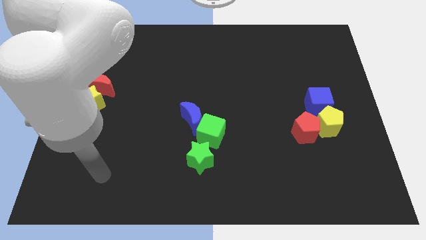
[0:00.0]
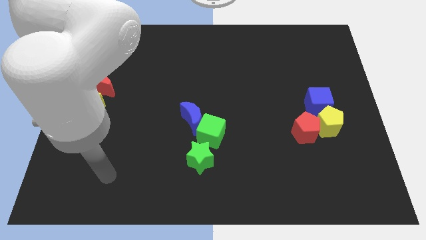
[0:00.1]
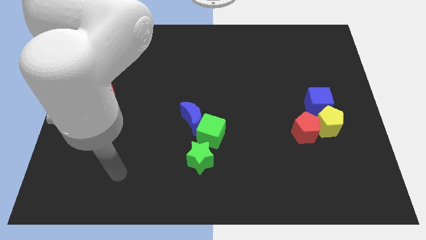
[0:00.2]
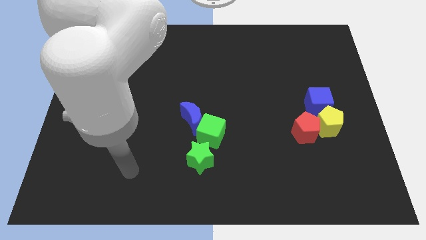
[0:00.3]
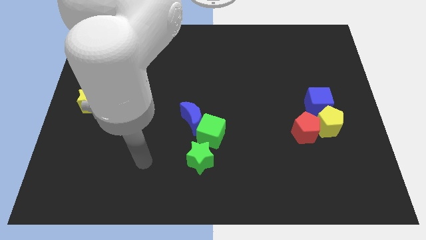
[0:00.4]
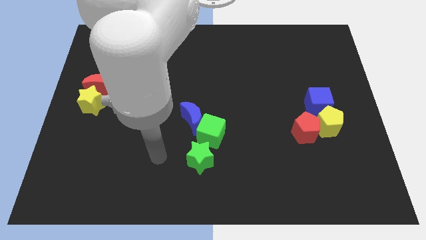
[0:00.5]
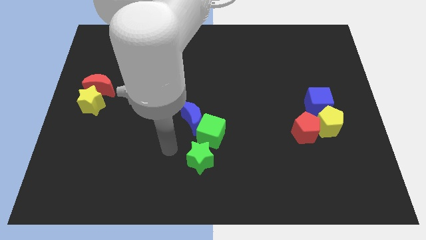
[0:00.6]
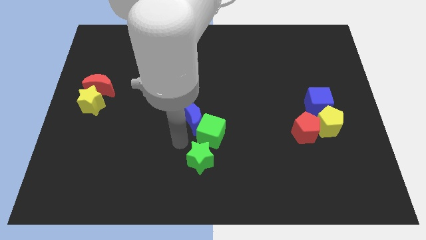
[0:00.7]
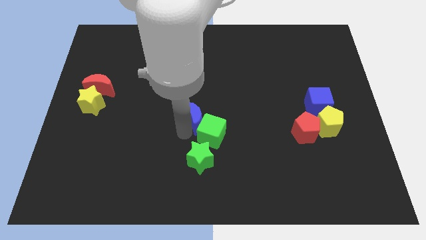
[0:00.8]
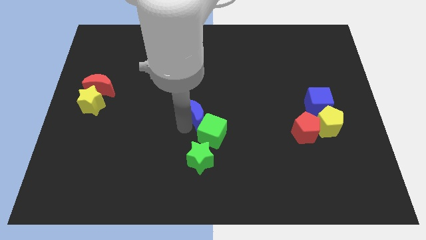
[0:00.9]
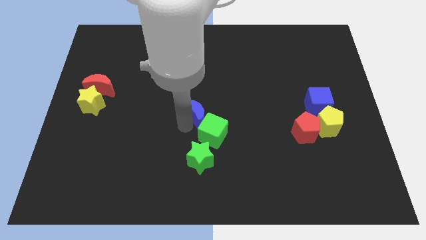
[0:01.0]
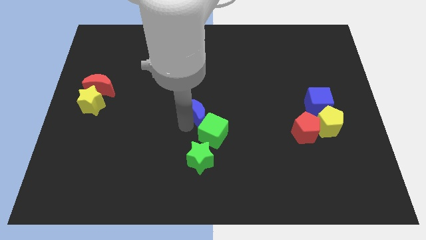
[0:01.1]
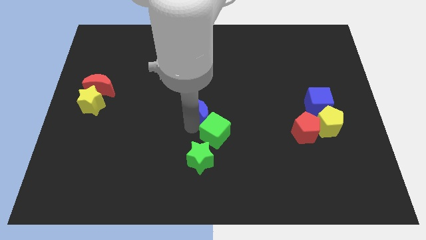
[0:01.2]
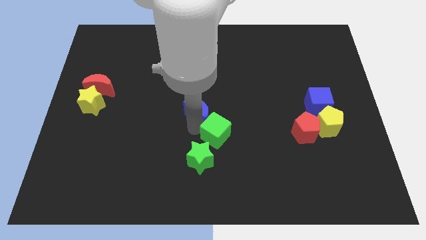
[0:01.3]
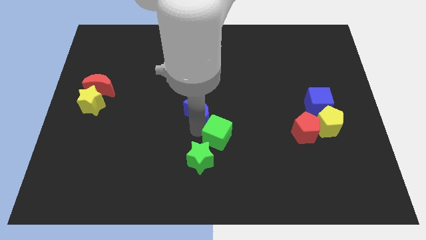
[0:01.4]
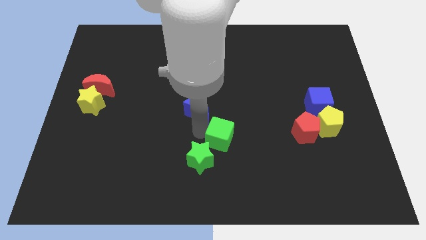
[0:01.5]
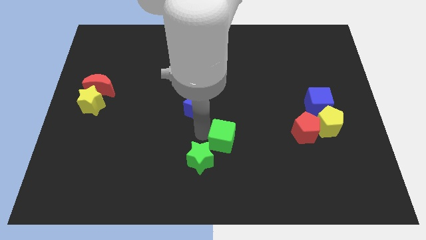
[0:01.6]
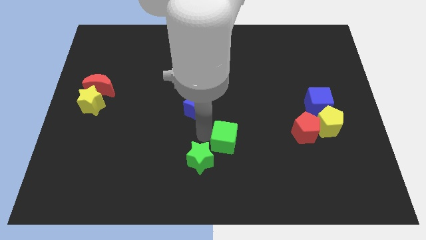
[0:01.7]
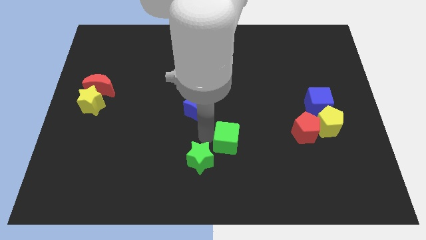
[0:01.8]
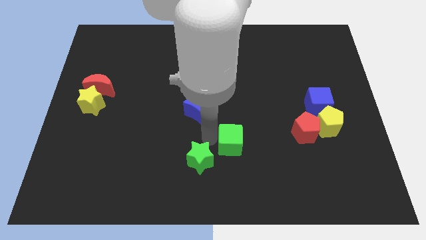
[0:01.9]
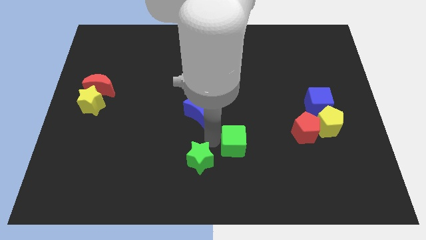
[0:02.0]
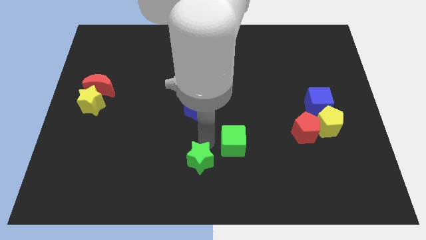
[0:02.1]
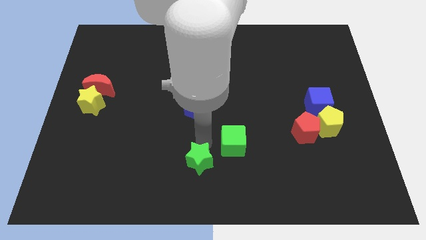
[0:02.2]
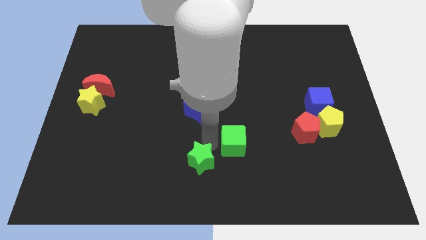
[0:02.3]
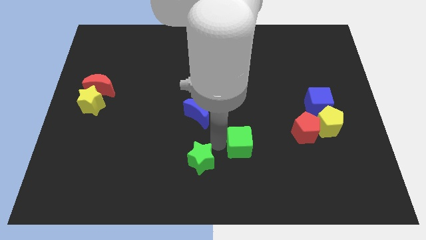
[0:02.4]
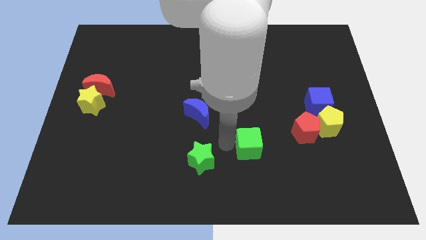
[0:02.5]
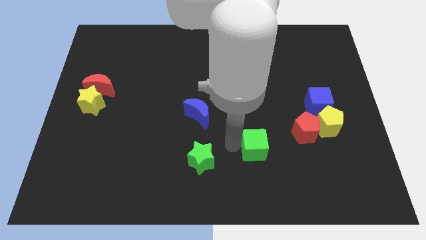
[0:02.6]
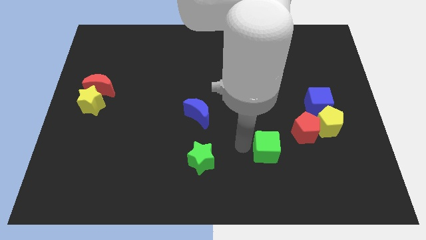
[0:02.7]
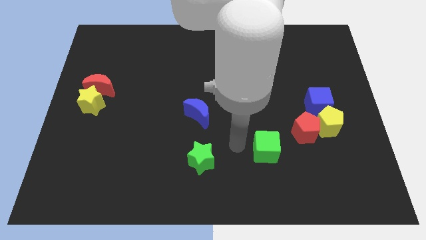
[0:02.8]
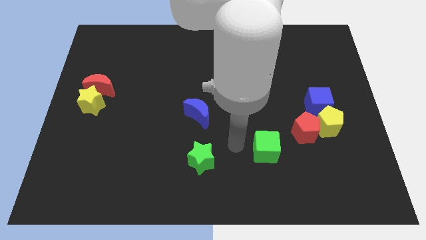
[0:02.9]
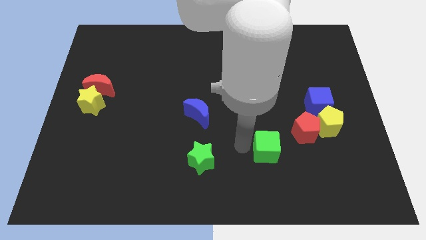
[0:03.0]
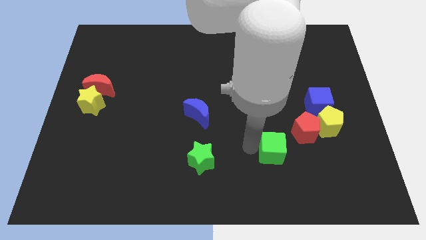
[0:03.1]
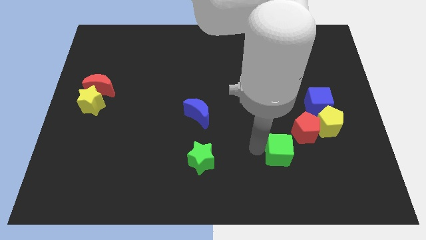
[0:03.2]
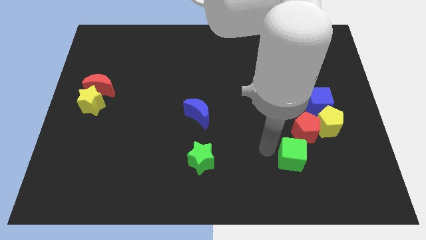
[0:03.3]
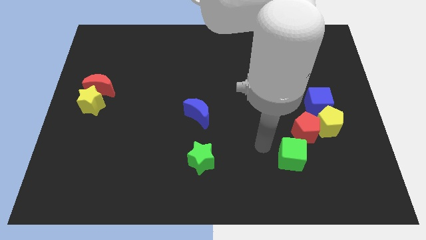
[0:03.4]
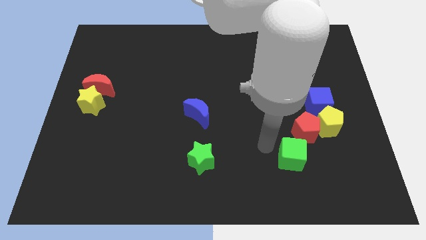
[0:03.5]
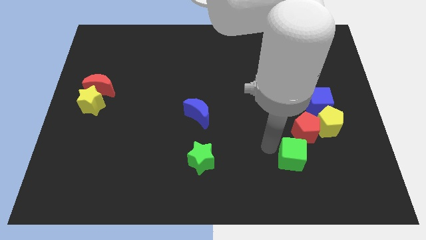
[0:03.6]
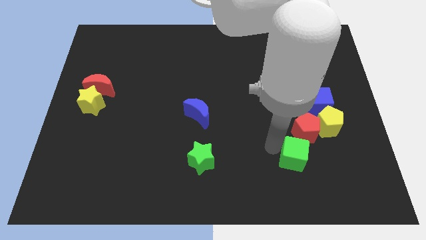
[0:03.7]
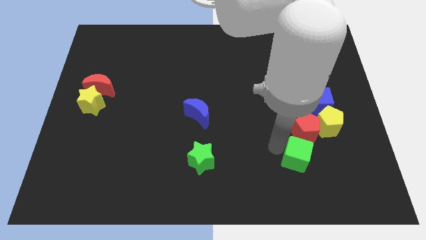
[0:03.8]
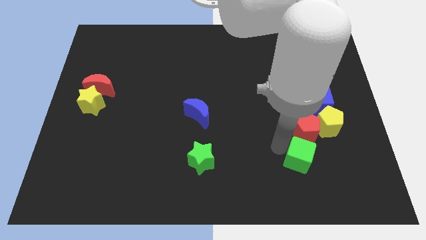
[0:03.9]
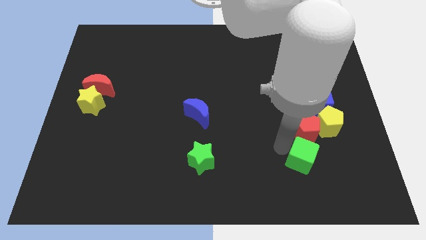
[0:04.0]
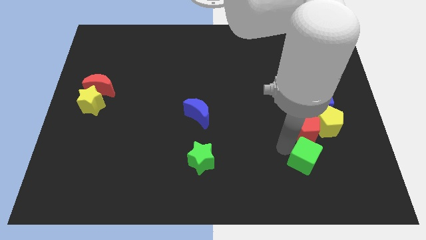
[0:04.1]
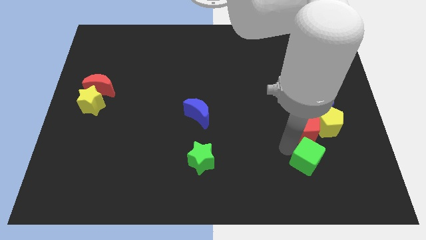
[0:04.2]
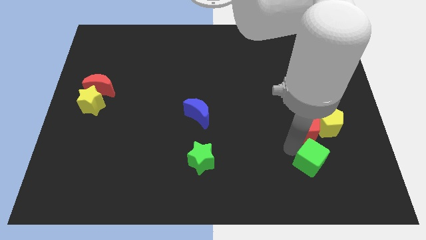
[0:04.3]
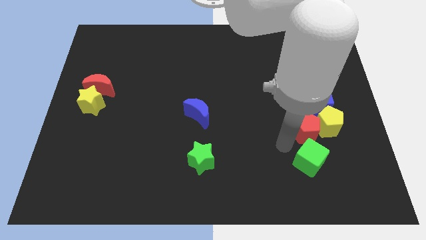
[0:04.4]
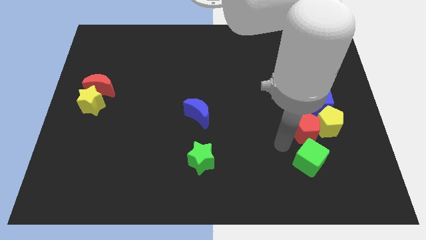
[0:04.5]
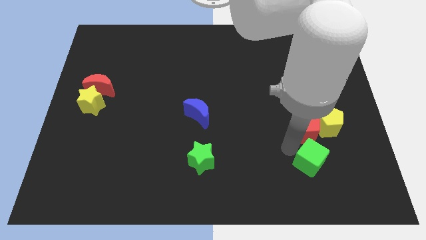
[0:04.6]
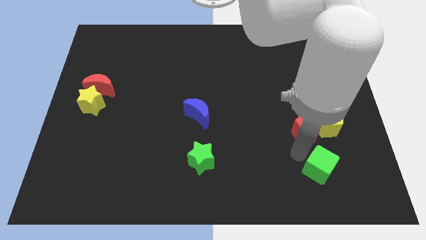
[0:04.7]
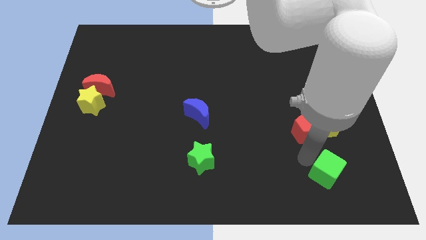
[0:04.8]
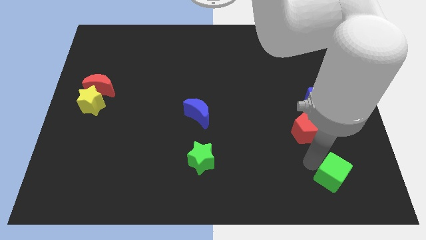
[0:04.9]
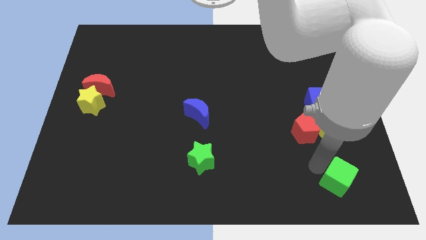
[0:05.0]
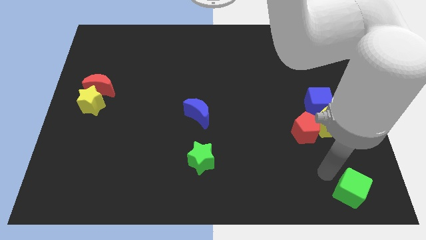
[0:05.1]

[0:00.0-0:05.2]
put the green cube to the lower right corner

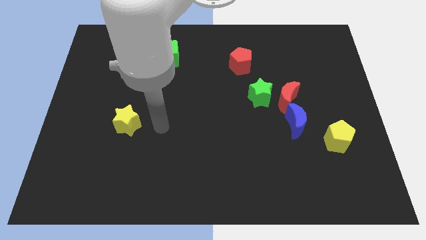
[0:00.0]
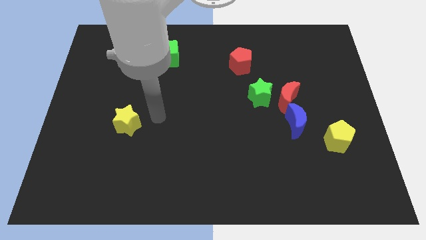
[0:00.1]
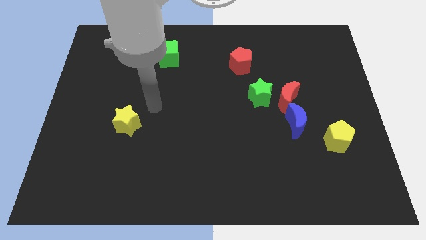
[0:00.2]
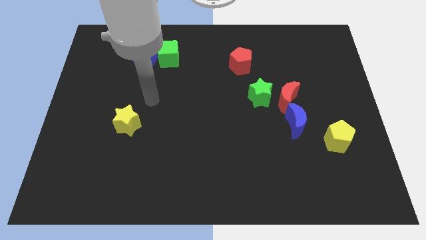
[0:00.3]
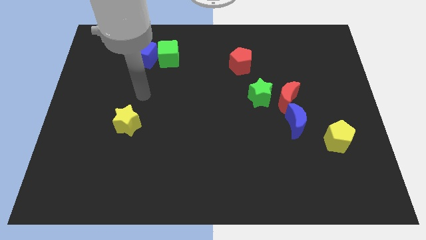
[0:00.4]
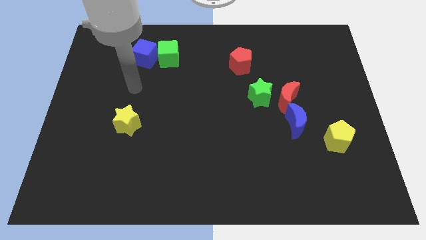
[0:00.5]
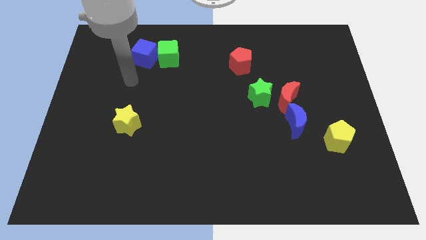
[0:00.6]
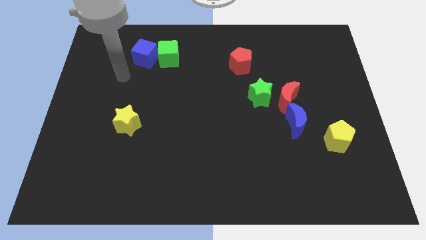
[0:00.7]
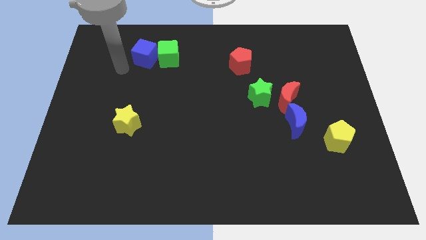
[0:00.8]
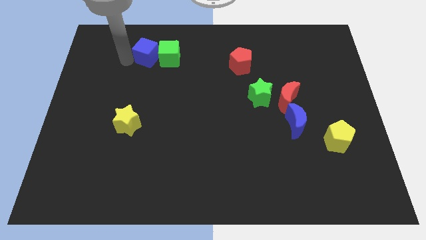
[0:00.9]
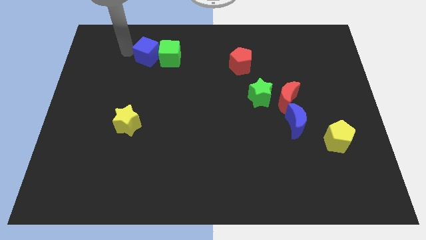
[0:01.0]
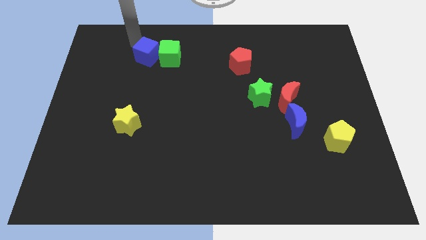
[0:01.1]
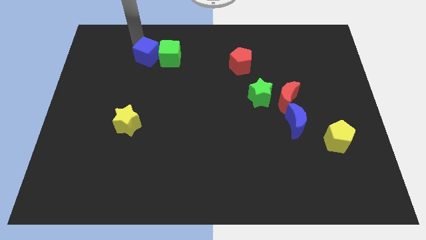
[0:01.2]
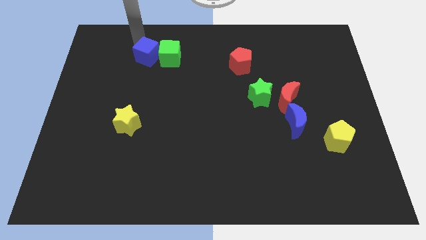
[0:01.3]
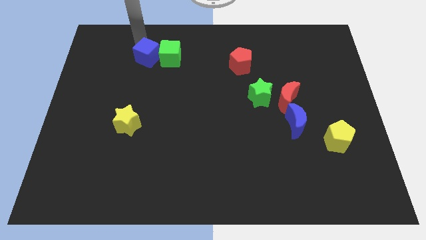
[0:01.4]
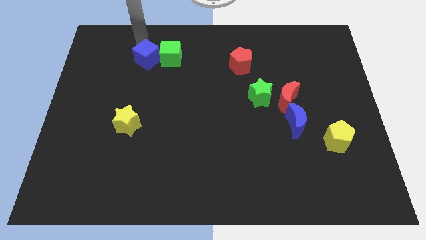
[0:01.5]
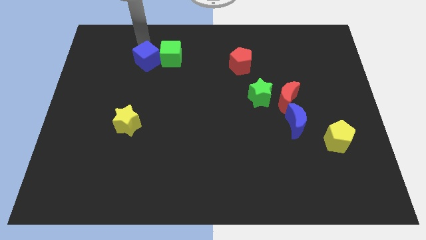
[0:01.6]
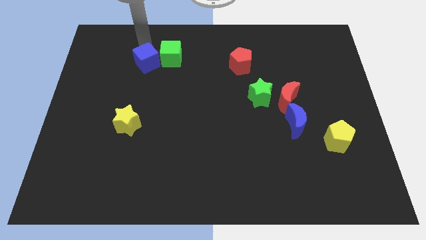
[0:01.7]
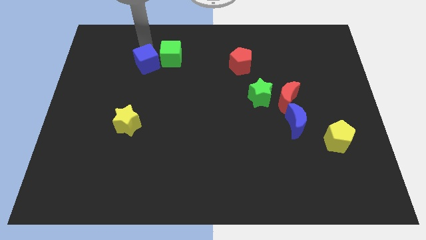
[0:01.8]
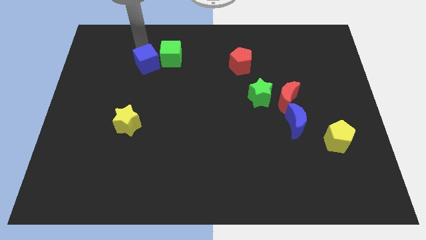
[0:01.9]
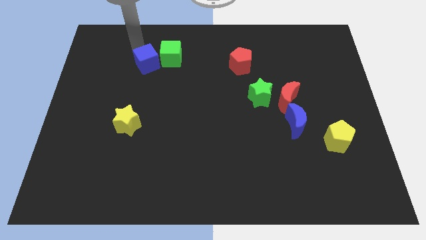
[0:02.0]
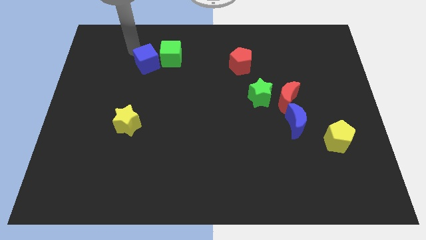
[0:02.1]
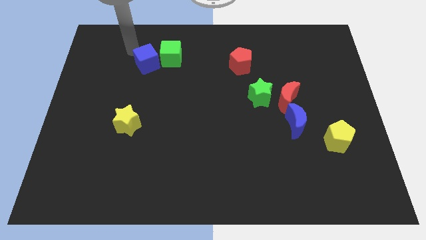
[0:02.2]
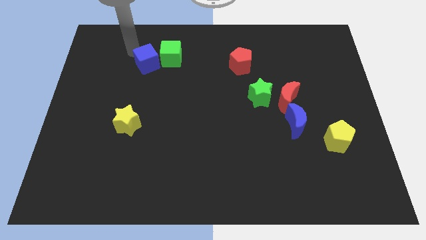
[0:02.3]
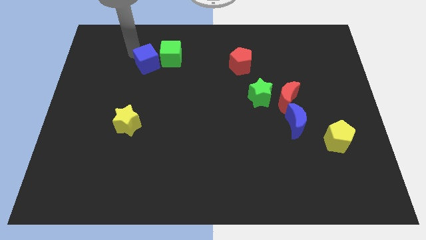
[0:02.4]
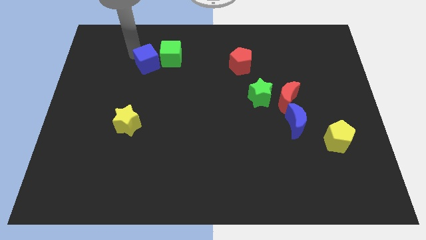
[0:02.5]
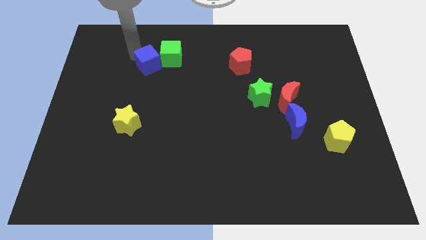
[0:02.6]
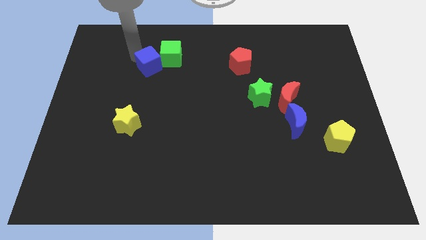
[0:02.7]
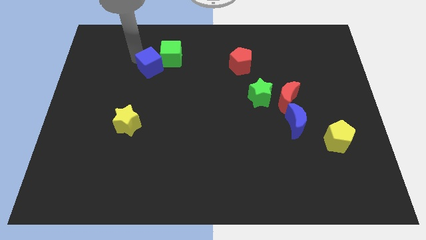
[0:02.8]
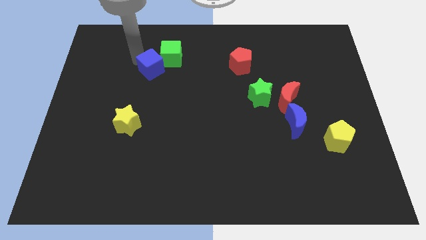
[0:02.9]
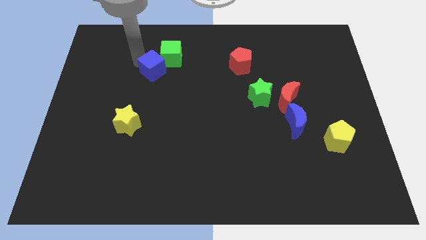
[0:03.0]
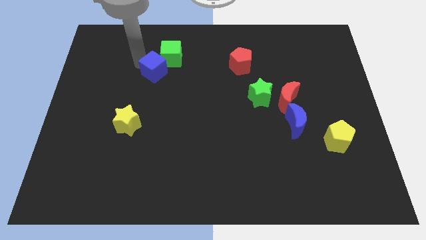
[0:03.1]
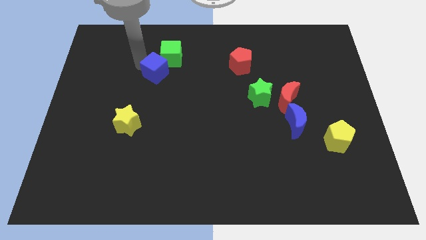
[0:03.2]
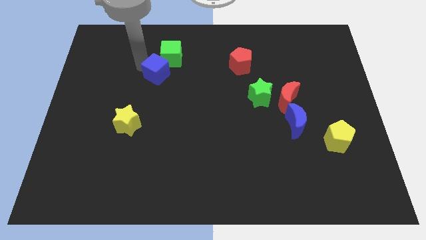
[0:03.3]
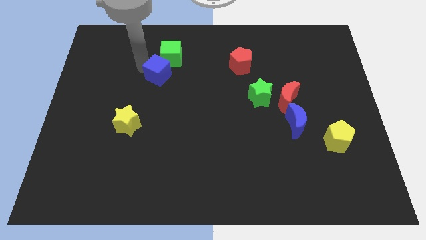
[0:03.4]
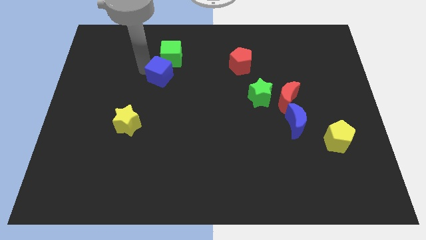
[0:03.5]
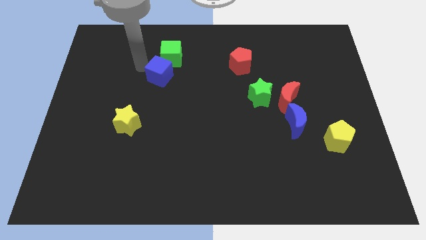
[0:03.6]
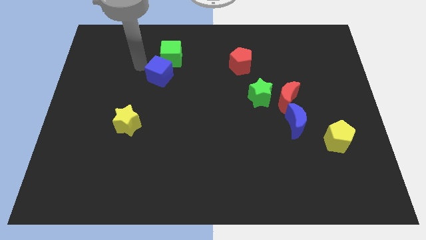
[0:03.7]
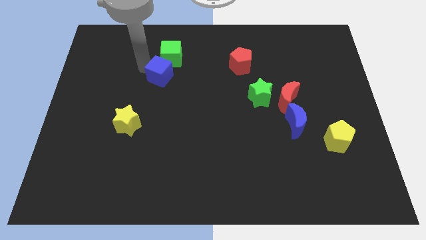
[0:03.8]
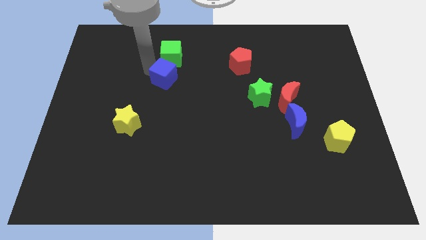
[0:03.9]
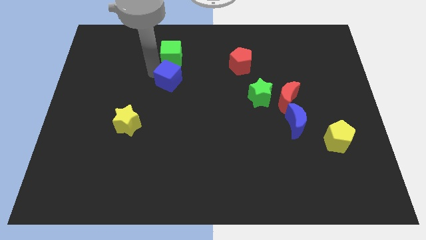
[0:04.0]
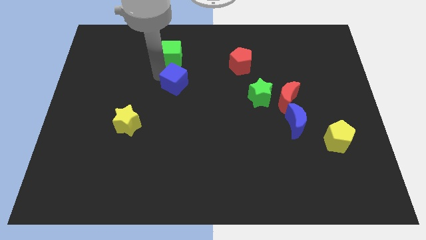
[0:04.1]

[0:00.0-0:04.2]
move the blue cube to the center
